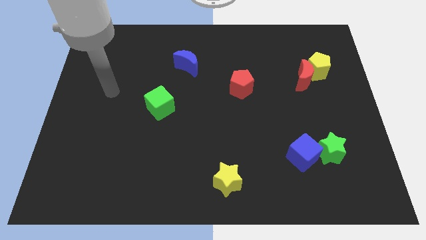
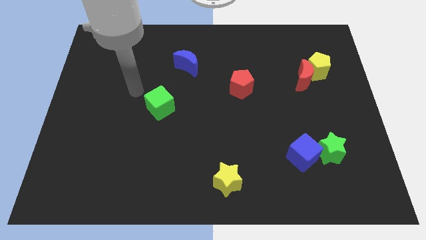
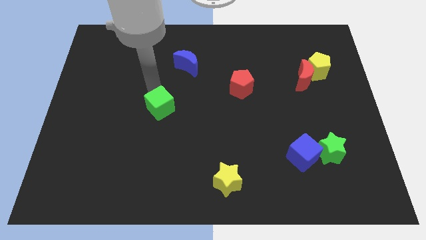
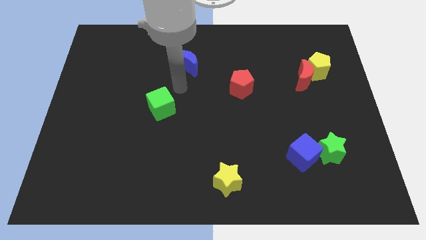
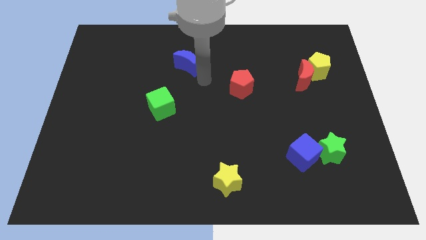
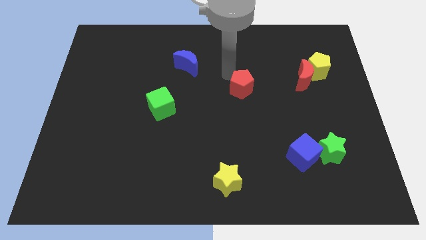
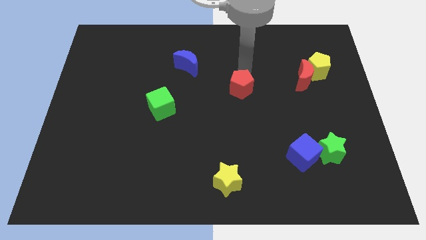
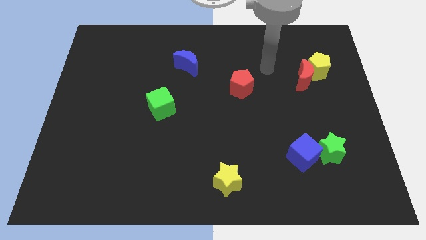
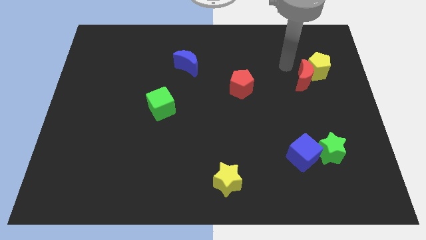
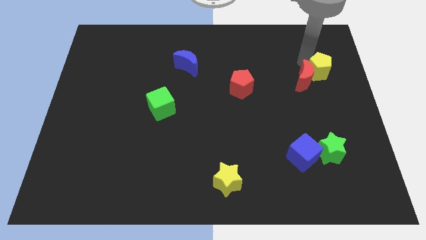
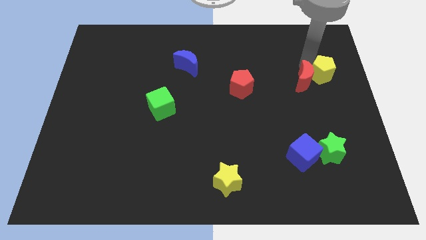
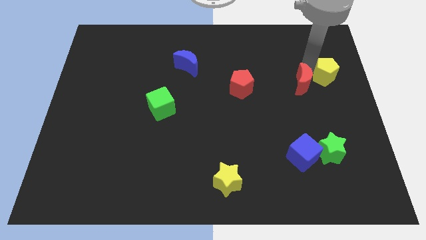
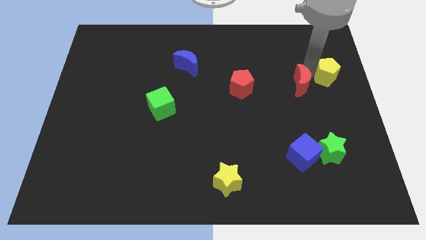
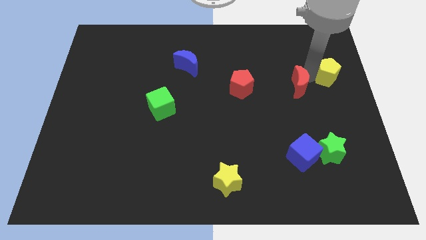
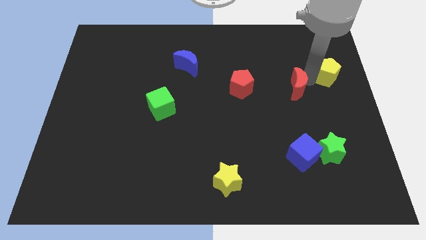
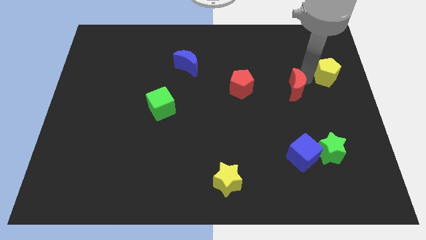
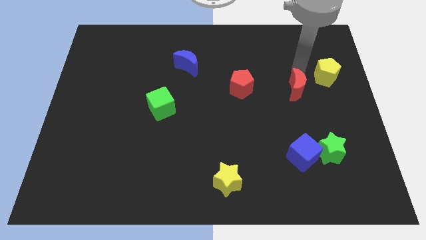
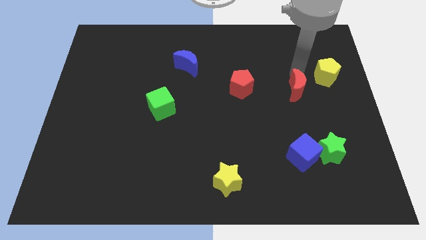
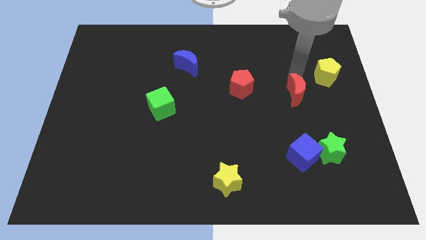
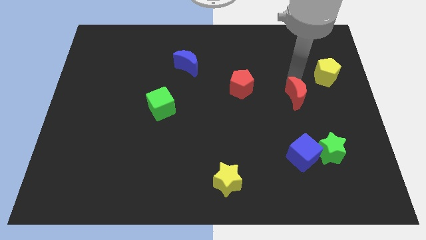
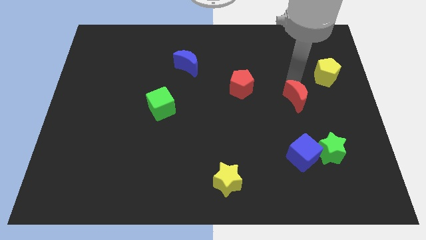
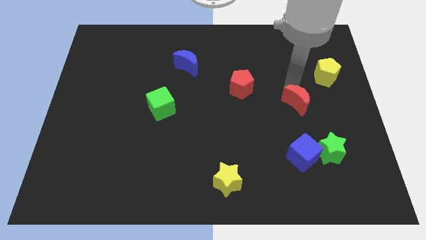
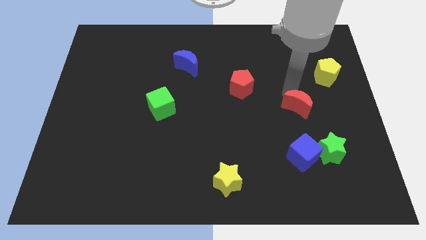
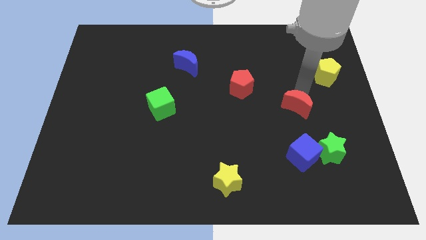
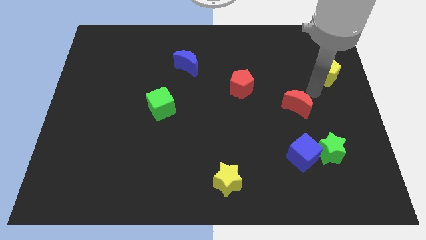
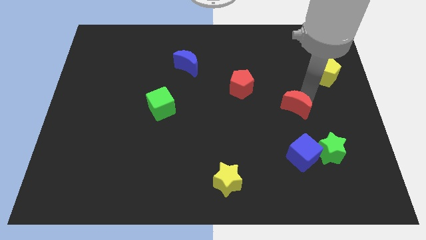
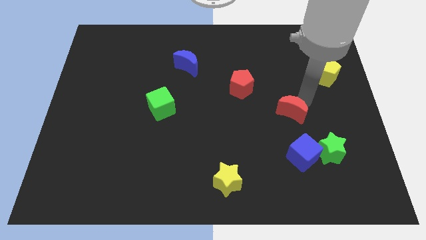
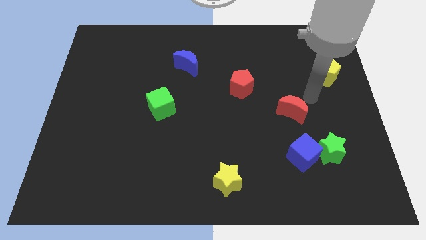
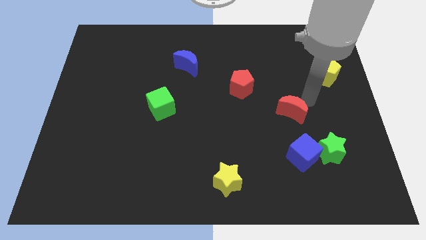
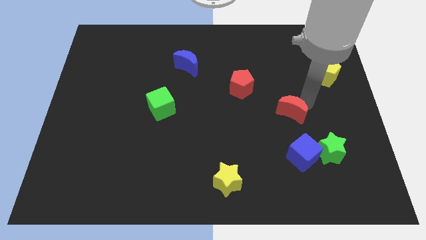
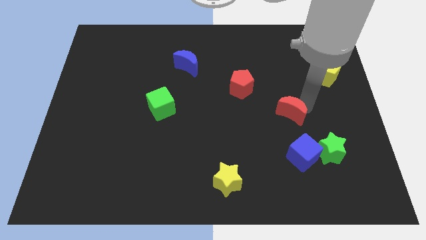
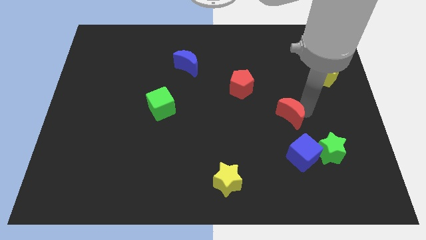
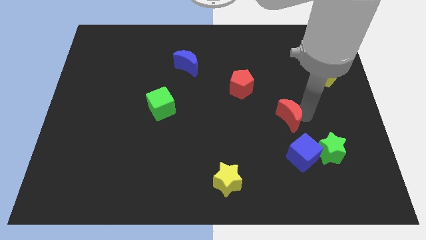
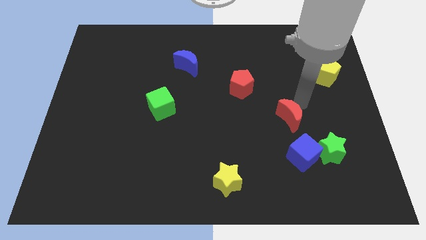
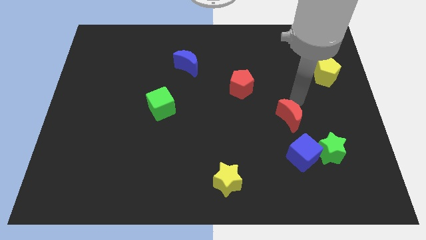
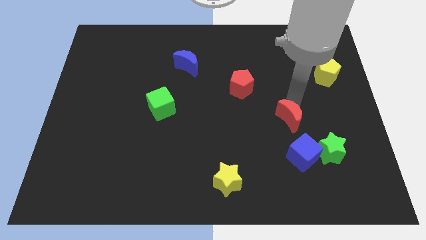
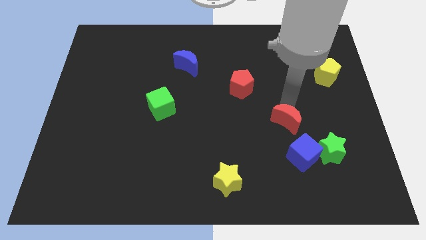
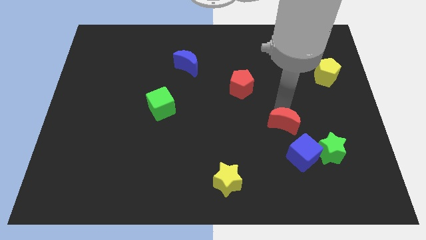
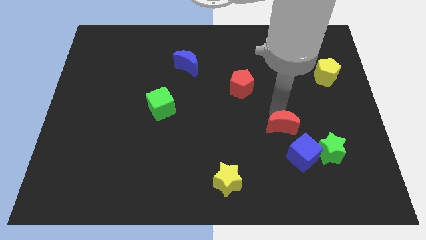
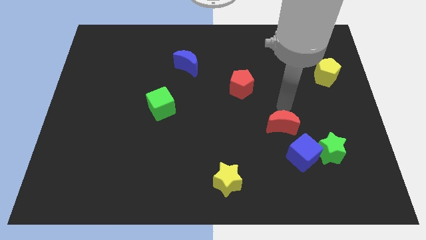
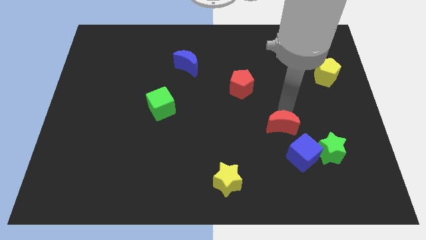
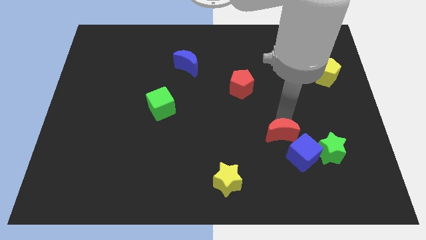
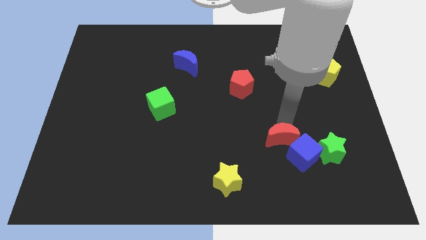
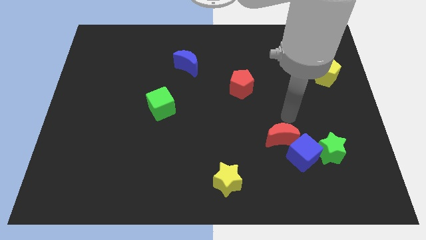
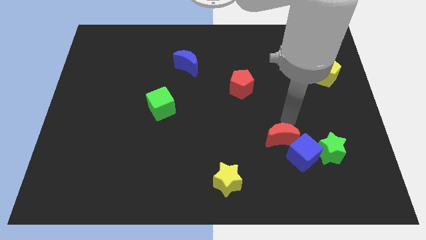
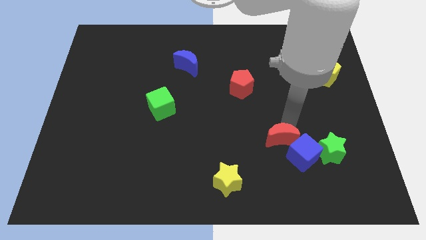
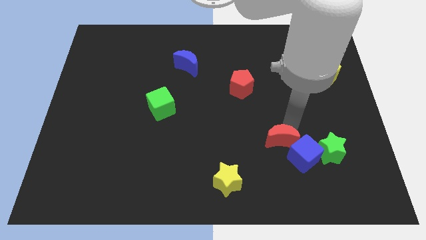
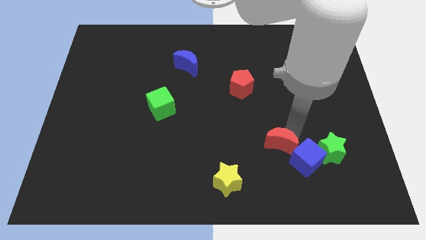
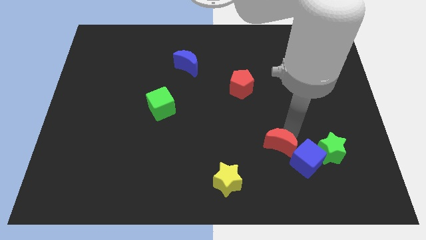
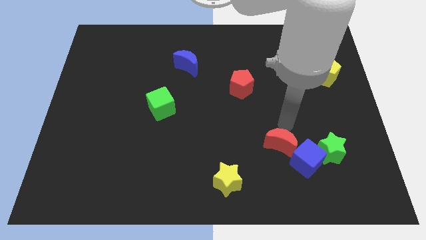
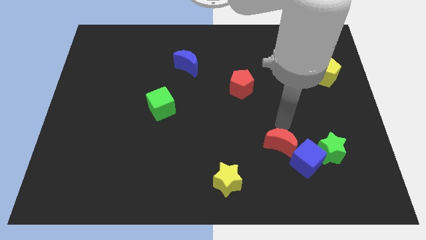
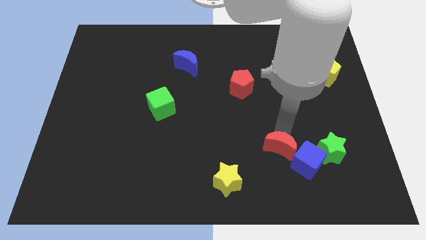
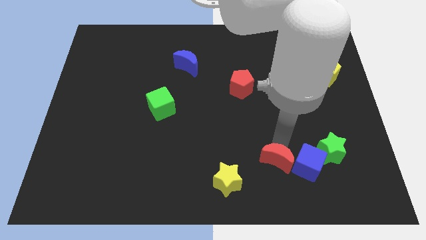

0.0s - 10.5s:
move the red moon to the right side of the yellow star

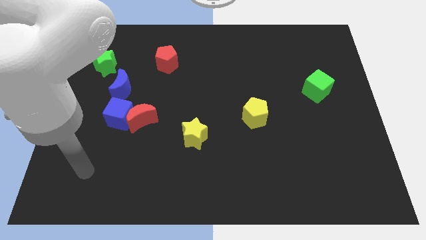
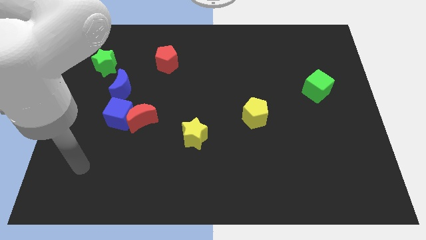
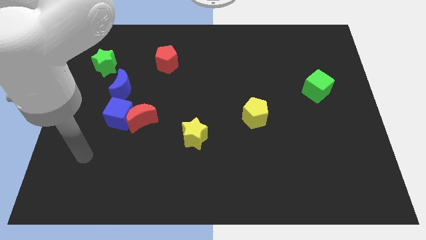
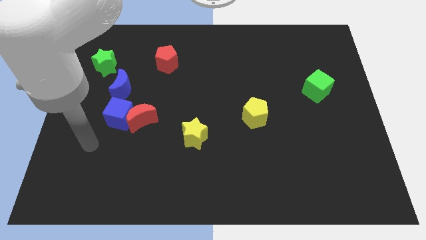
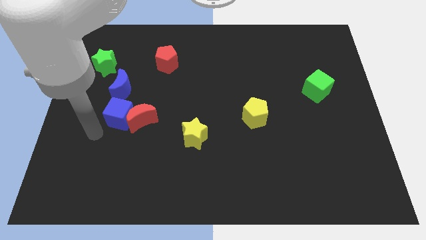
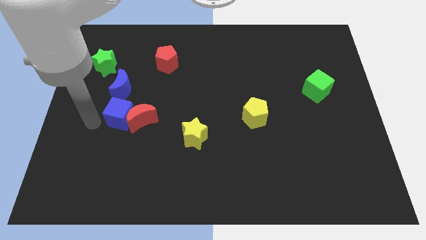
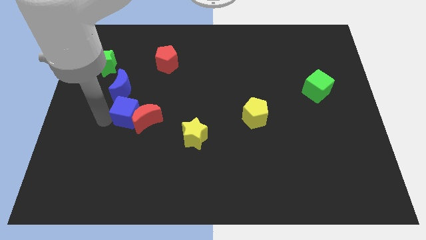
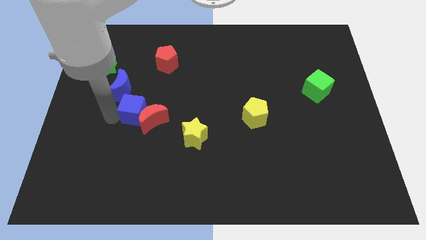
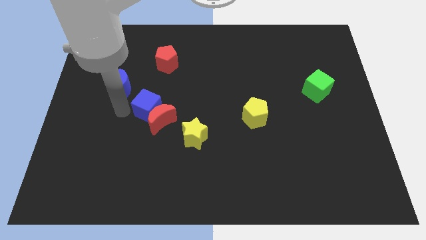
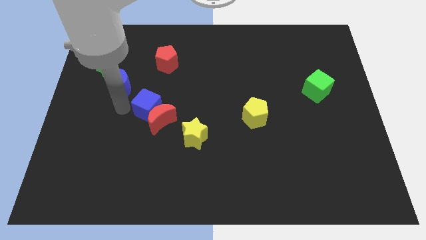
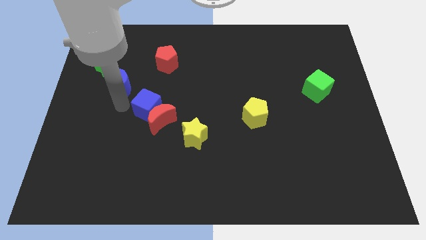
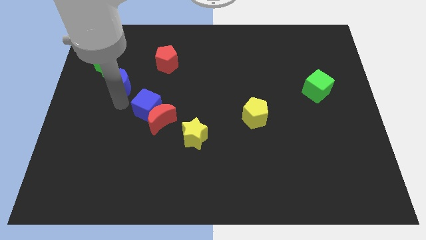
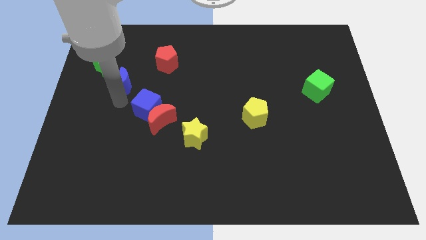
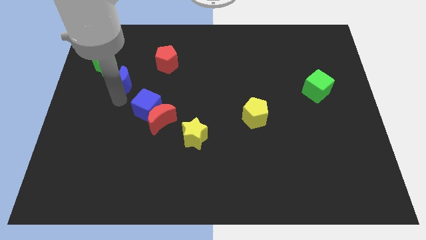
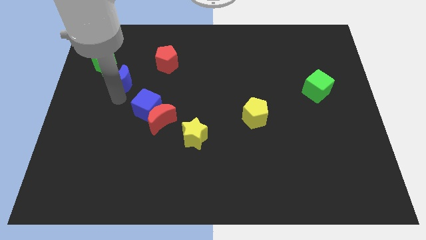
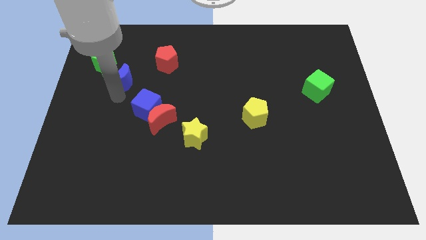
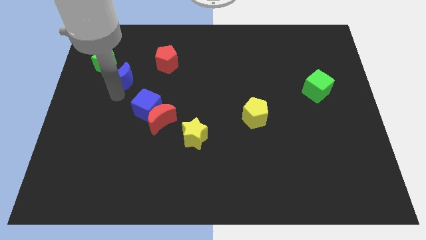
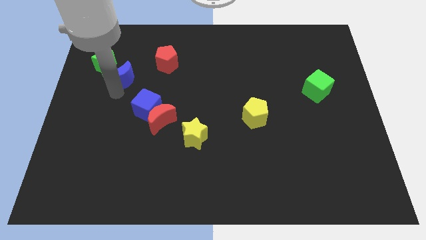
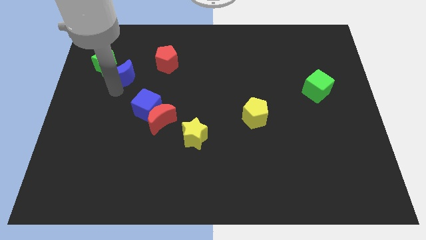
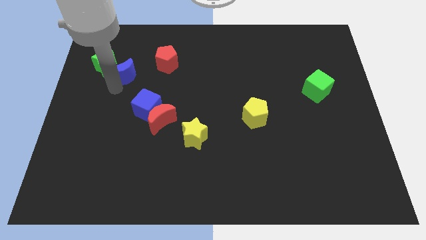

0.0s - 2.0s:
slide the blue moon just left of the red pentagon

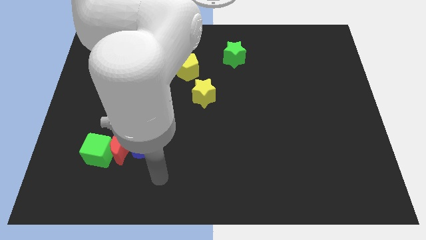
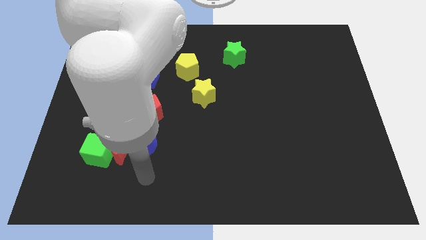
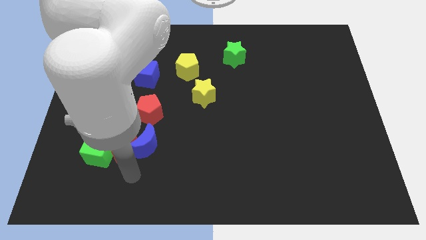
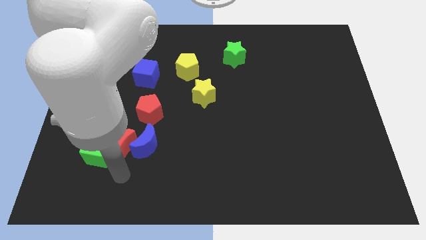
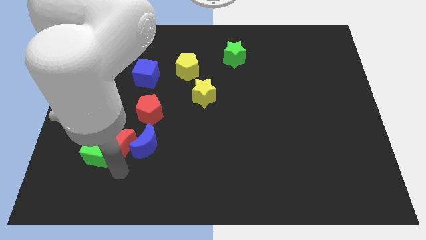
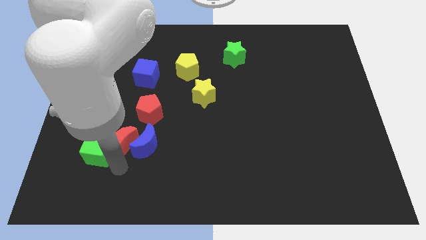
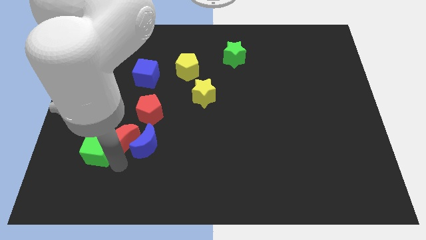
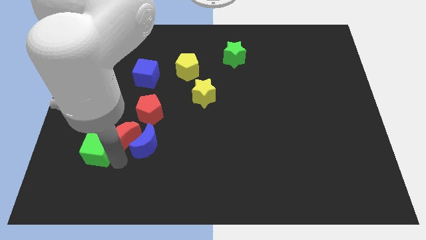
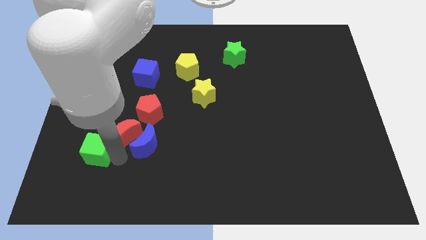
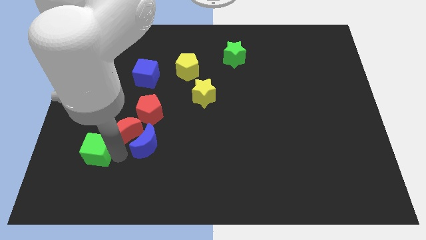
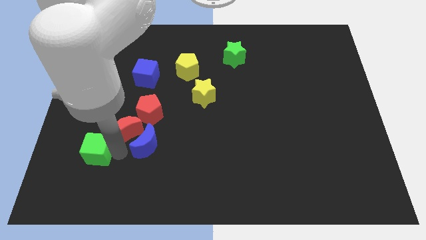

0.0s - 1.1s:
slide the red moon above the blue moon
